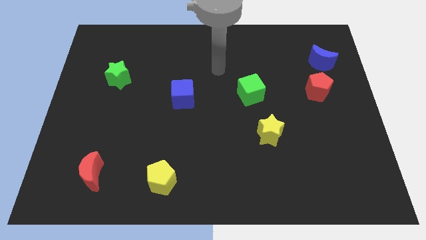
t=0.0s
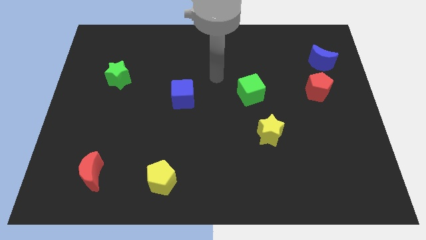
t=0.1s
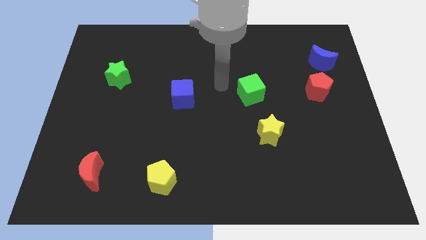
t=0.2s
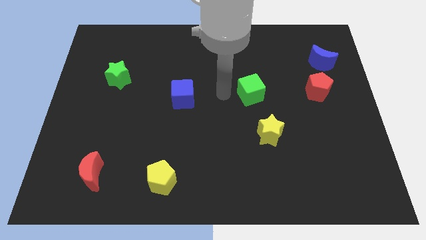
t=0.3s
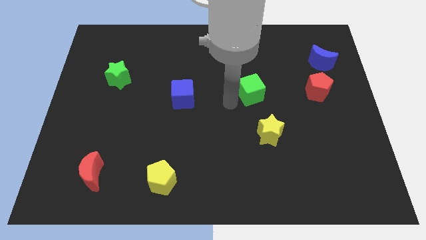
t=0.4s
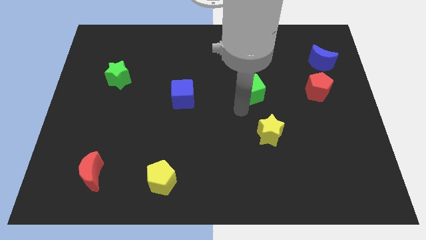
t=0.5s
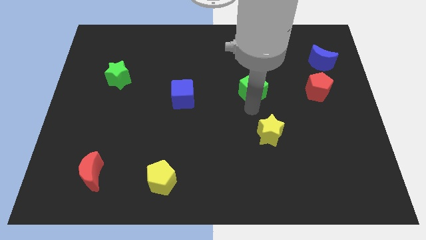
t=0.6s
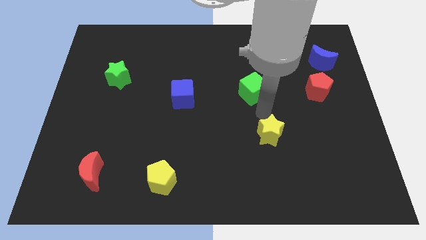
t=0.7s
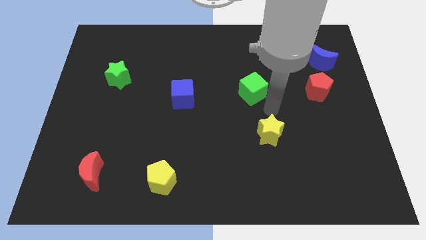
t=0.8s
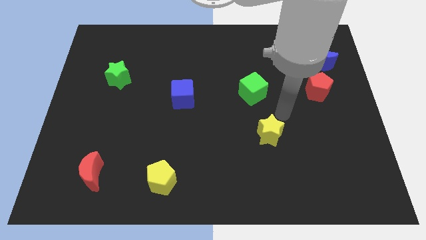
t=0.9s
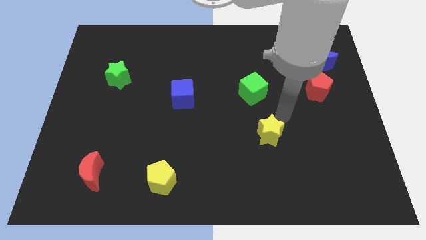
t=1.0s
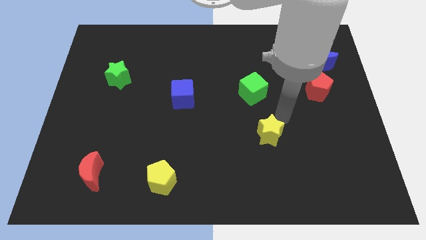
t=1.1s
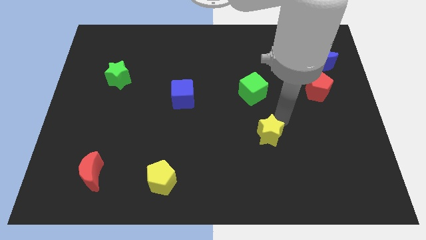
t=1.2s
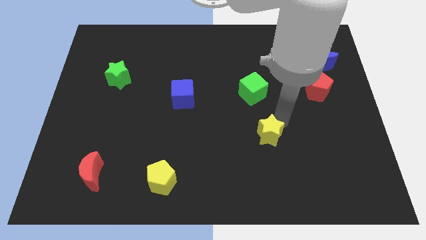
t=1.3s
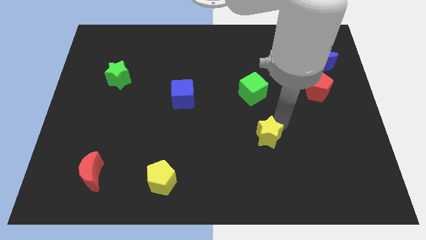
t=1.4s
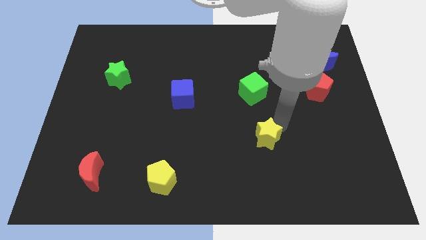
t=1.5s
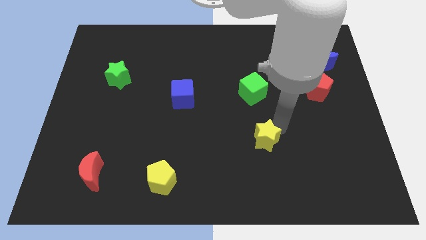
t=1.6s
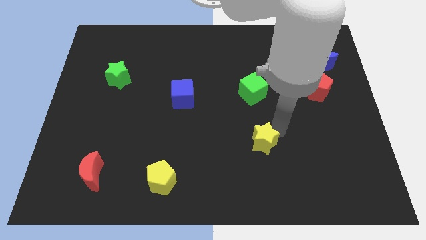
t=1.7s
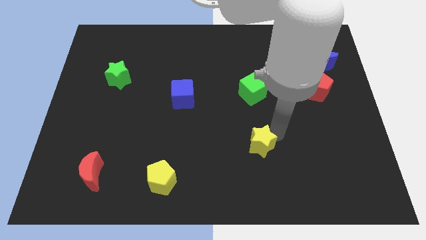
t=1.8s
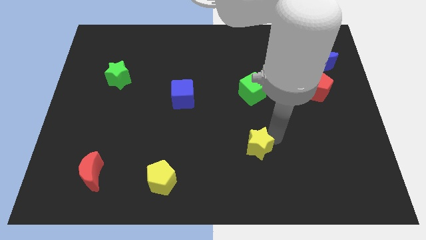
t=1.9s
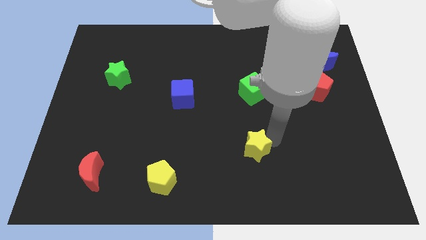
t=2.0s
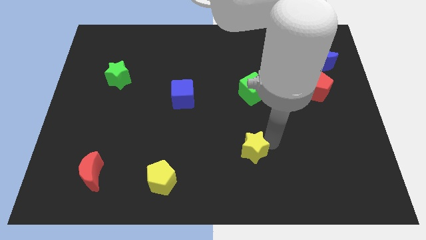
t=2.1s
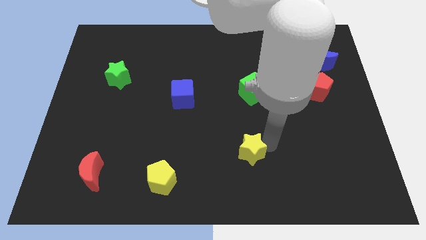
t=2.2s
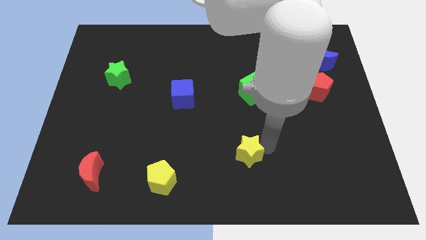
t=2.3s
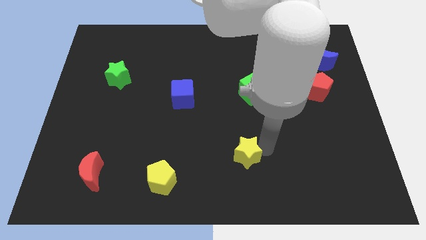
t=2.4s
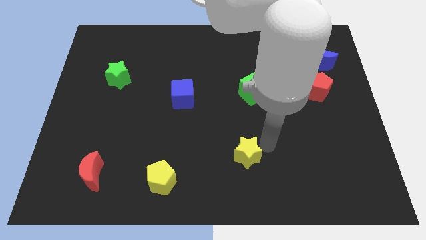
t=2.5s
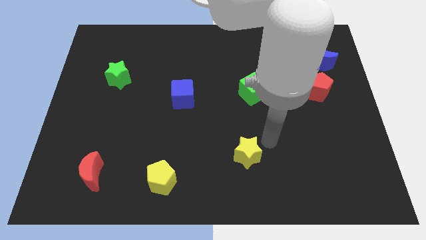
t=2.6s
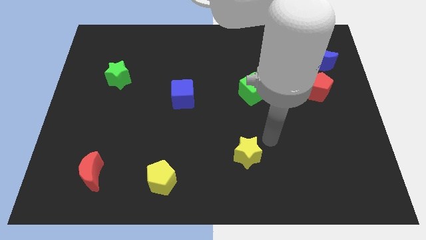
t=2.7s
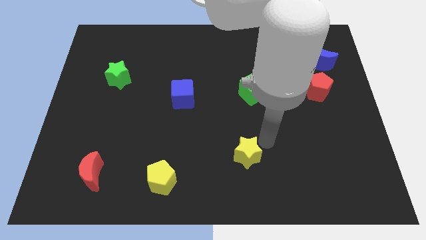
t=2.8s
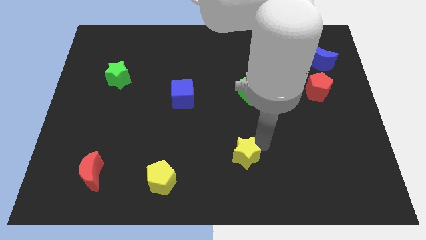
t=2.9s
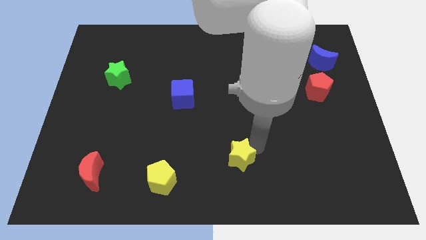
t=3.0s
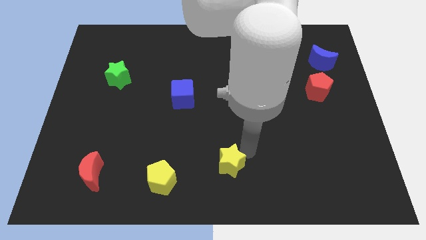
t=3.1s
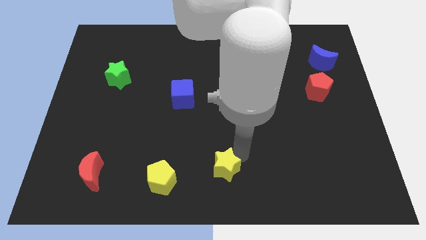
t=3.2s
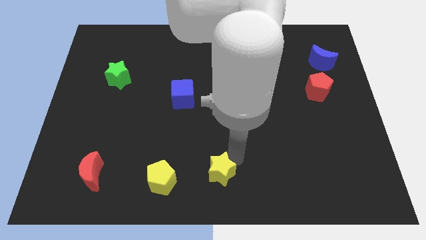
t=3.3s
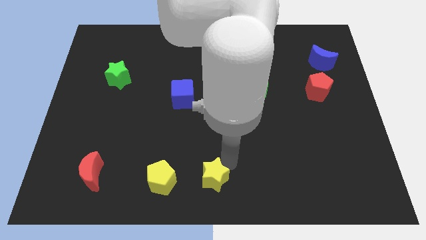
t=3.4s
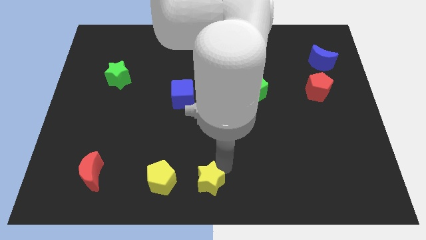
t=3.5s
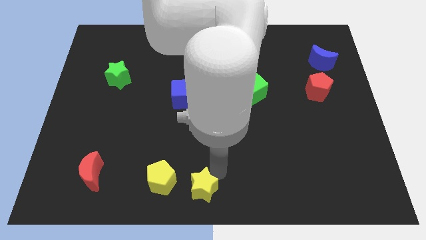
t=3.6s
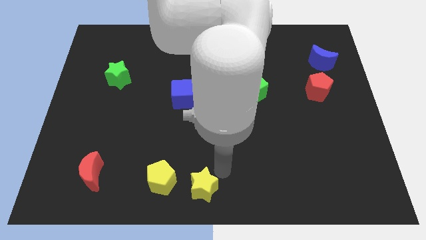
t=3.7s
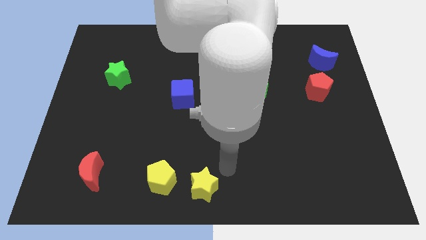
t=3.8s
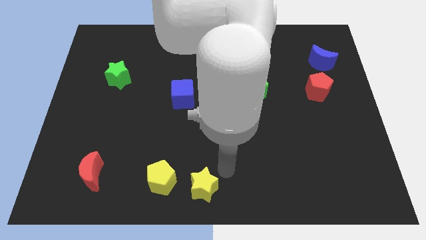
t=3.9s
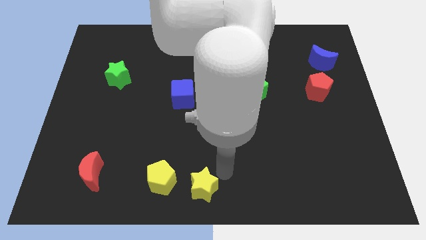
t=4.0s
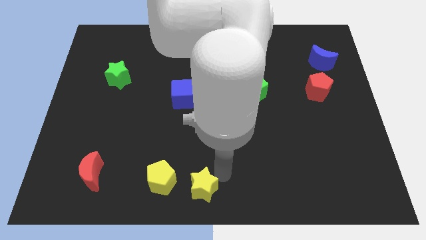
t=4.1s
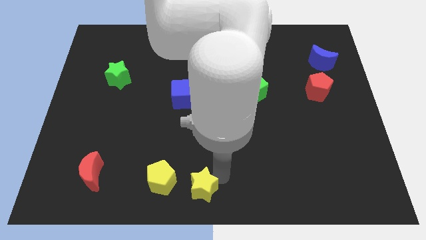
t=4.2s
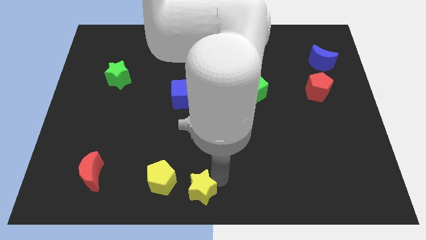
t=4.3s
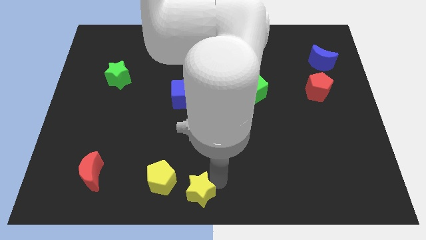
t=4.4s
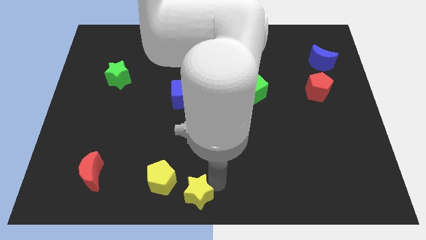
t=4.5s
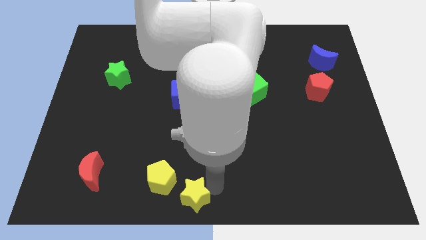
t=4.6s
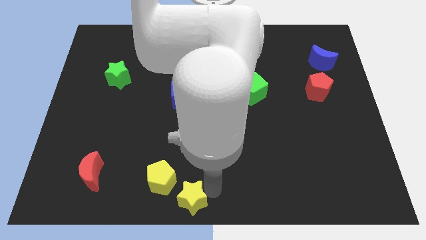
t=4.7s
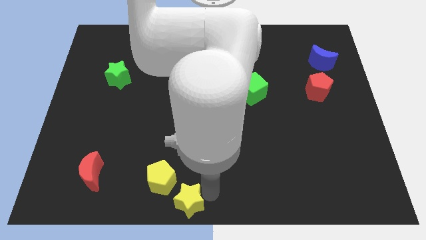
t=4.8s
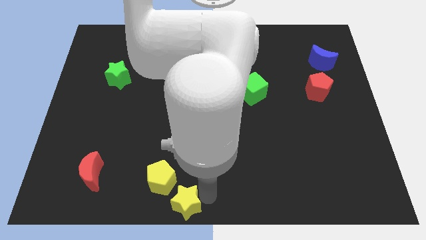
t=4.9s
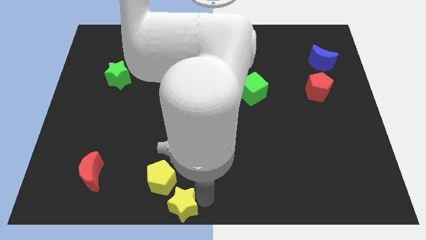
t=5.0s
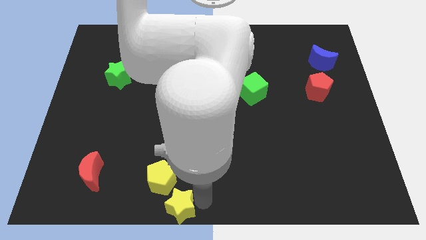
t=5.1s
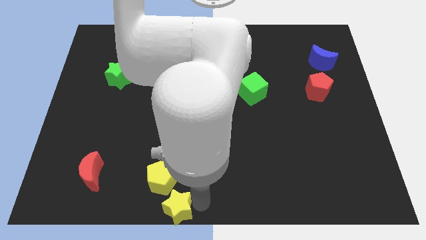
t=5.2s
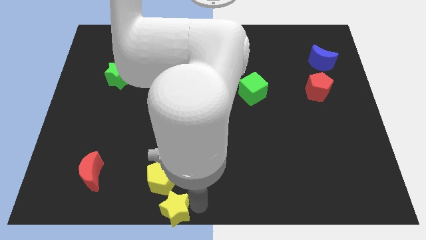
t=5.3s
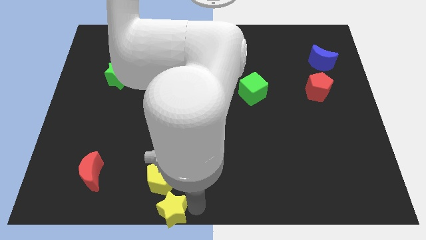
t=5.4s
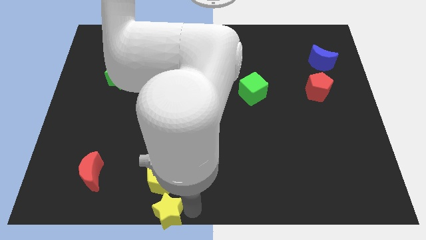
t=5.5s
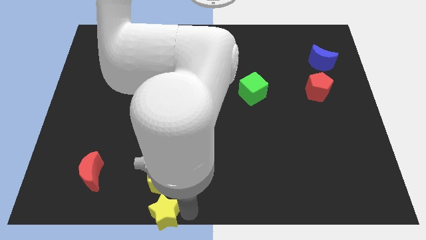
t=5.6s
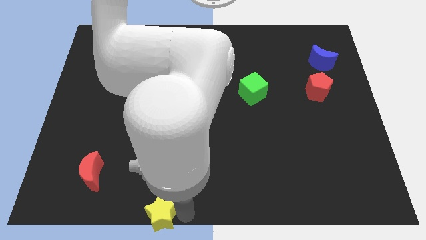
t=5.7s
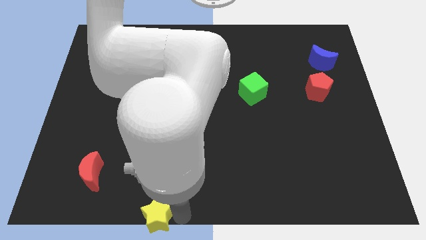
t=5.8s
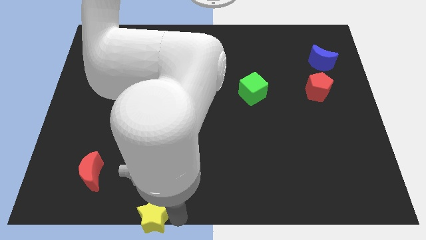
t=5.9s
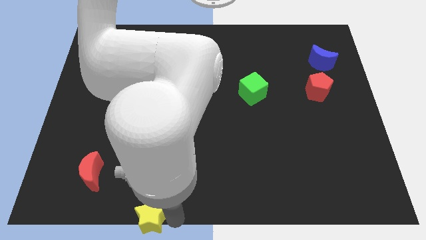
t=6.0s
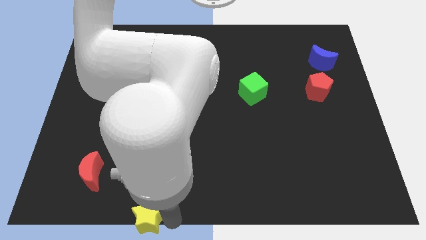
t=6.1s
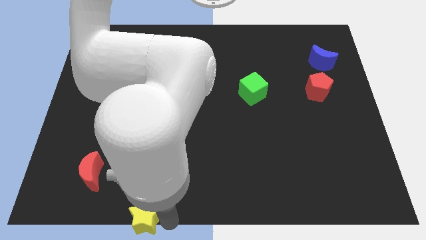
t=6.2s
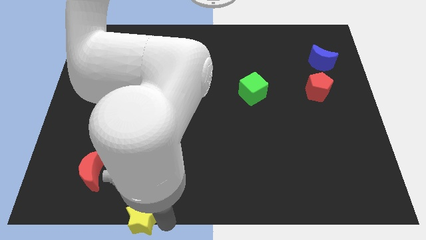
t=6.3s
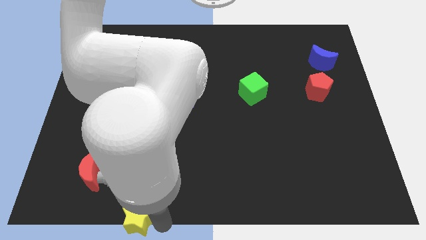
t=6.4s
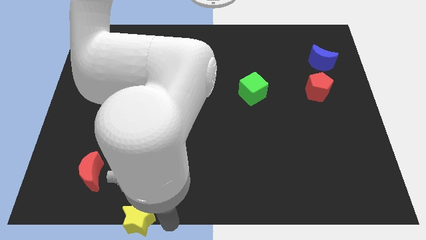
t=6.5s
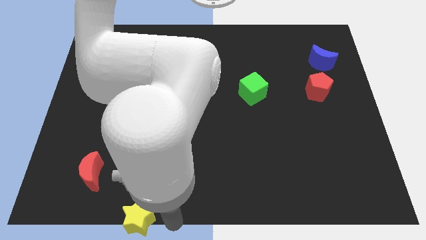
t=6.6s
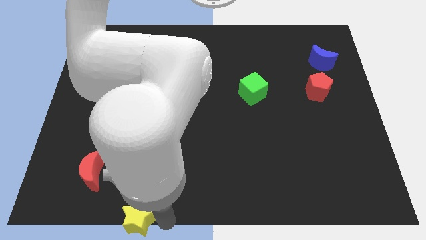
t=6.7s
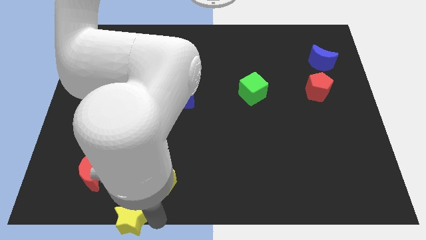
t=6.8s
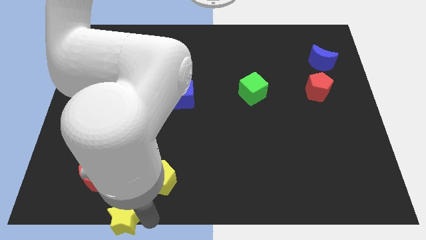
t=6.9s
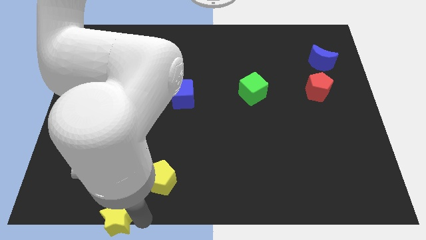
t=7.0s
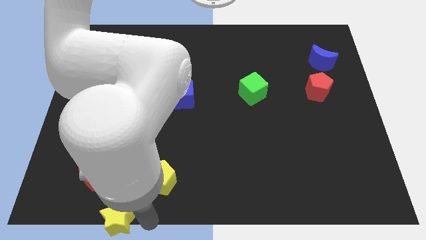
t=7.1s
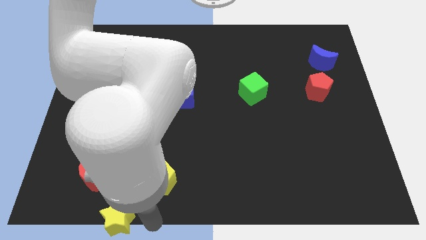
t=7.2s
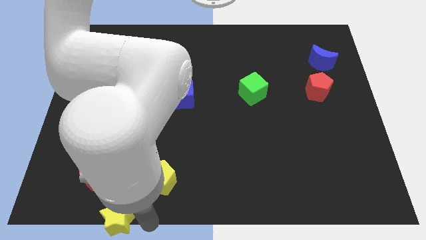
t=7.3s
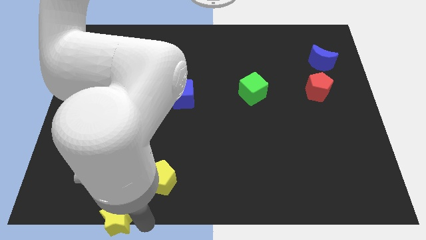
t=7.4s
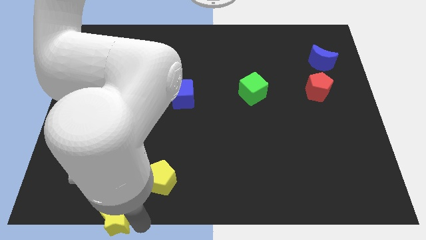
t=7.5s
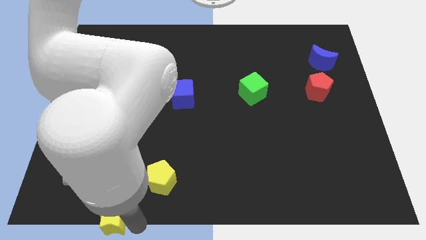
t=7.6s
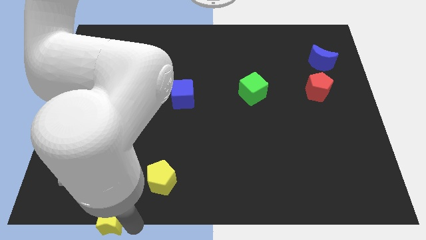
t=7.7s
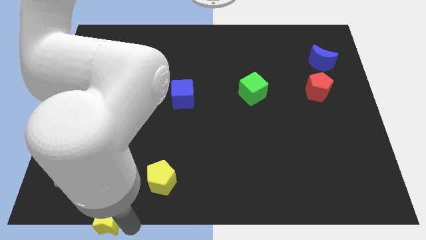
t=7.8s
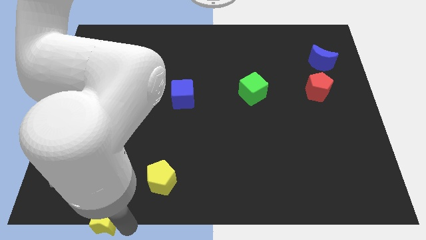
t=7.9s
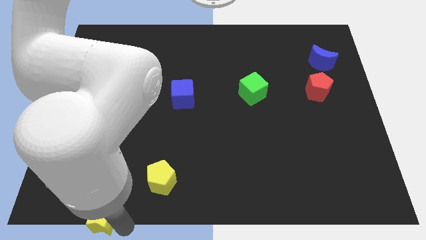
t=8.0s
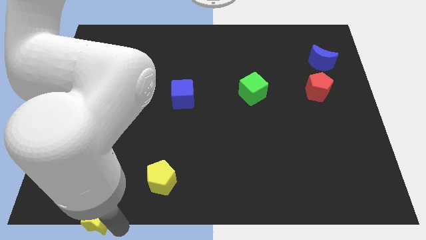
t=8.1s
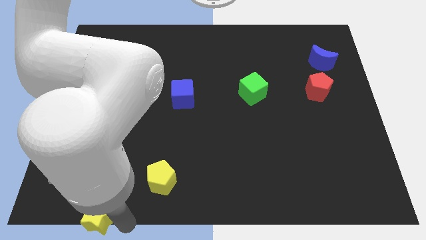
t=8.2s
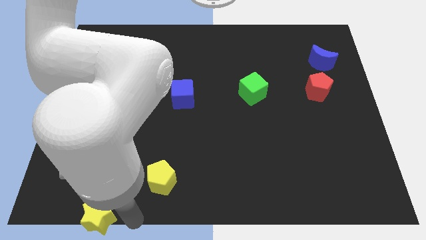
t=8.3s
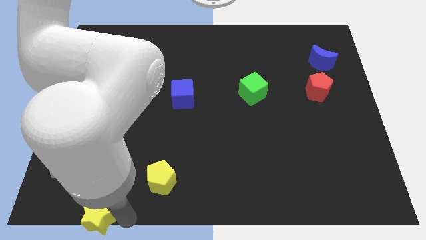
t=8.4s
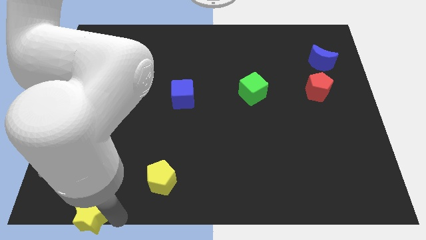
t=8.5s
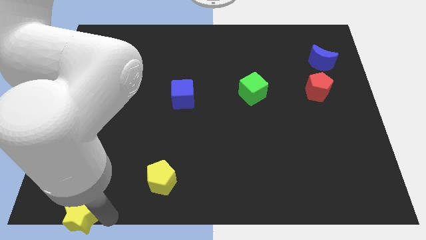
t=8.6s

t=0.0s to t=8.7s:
put the yellow star to the lower left corner
